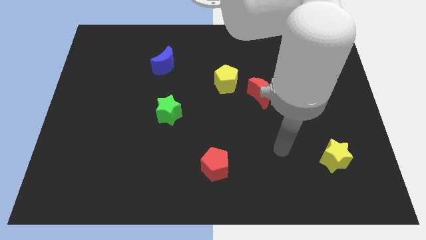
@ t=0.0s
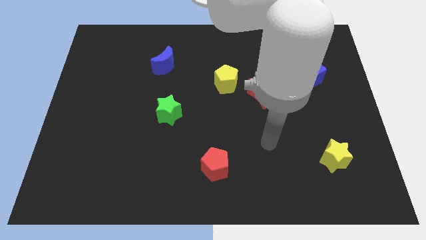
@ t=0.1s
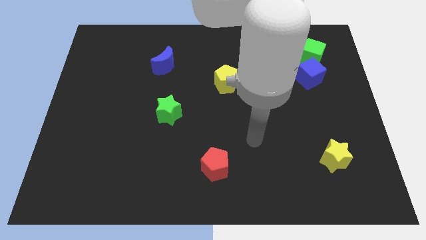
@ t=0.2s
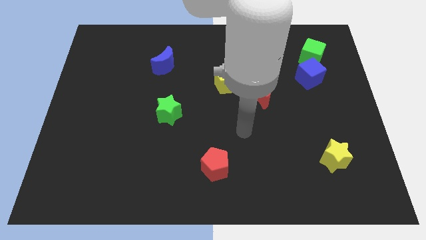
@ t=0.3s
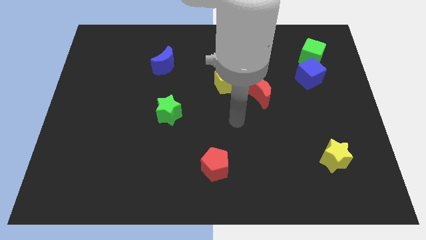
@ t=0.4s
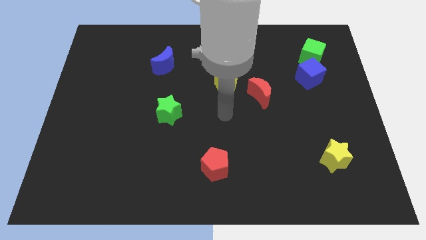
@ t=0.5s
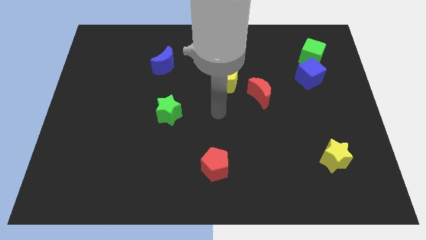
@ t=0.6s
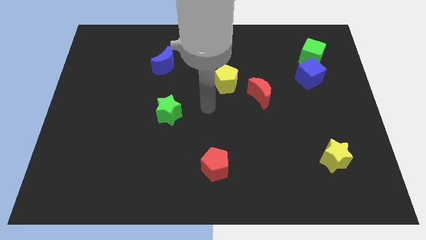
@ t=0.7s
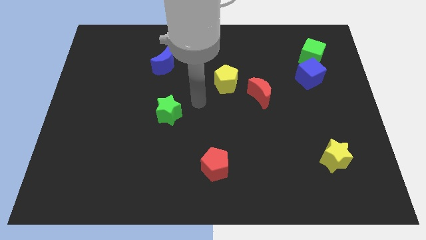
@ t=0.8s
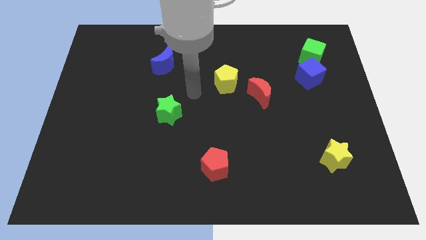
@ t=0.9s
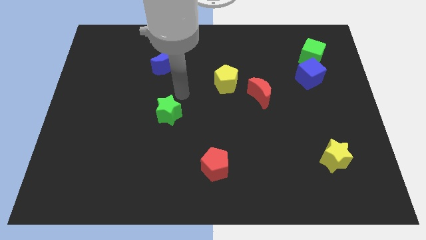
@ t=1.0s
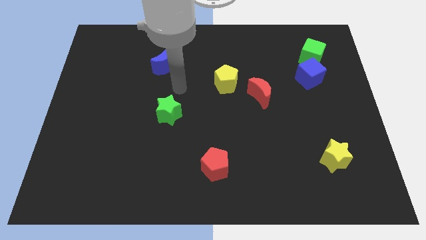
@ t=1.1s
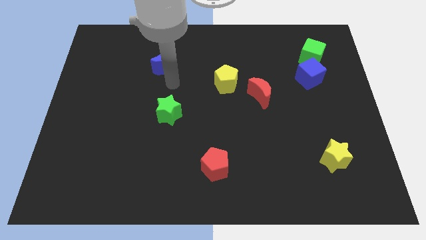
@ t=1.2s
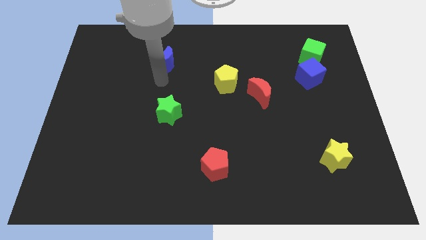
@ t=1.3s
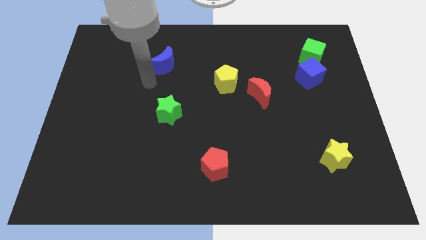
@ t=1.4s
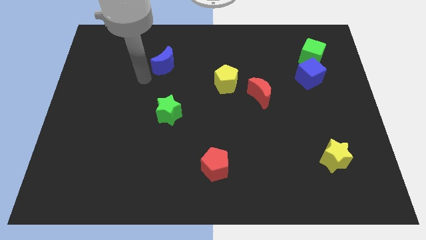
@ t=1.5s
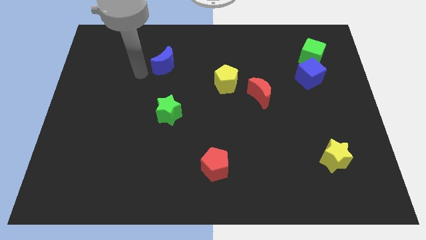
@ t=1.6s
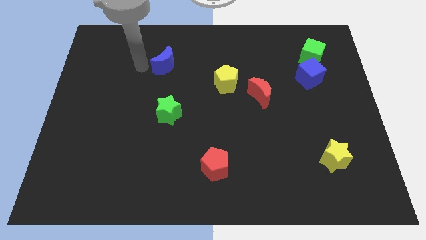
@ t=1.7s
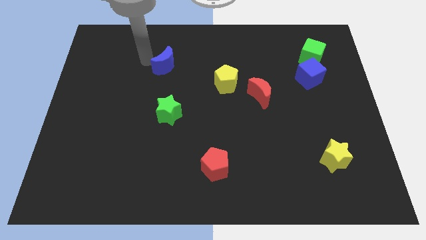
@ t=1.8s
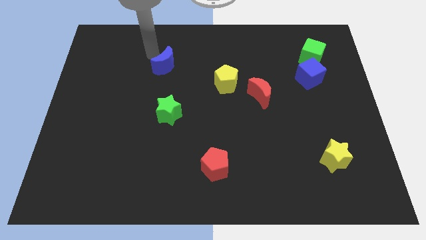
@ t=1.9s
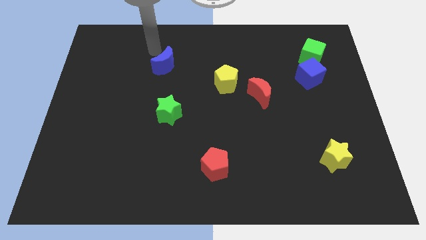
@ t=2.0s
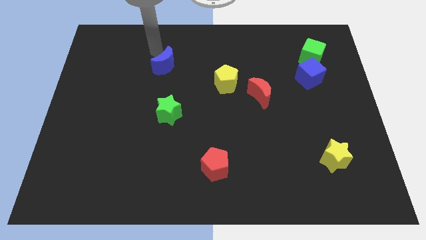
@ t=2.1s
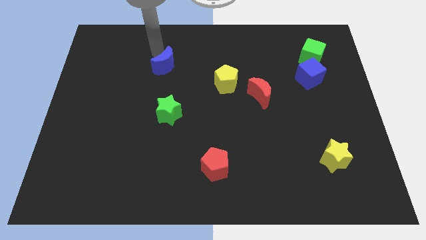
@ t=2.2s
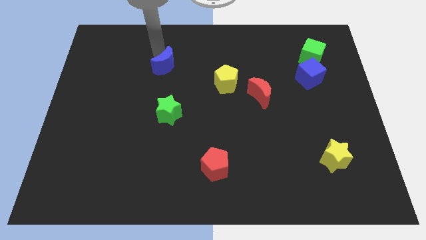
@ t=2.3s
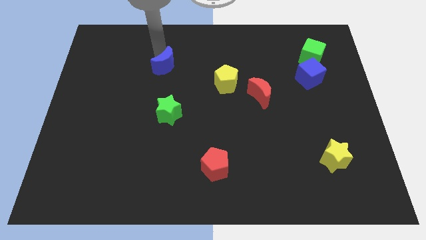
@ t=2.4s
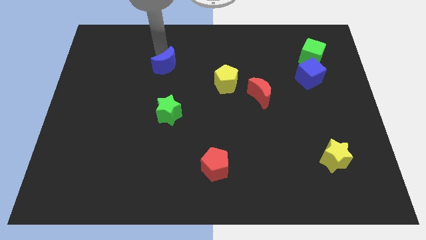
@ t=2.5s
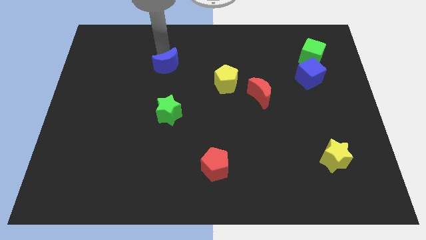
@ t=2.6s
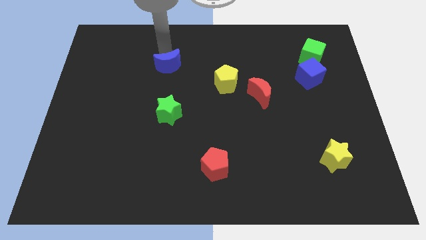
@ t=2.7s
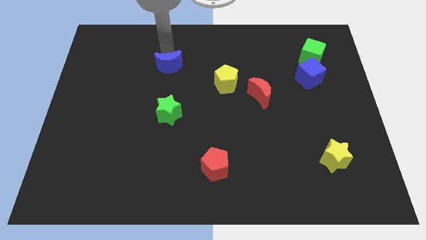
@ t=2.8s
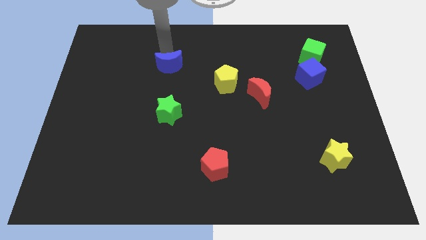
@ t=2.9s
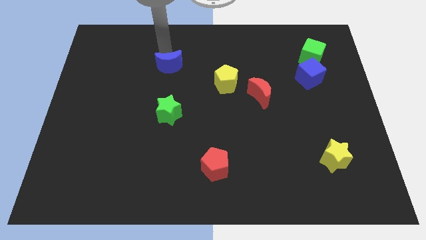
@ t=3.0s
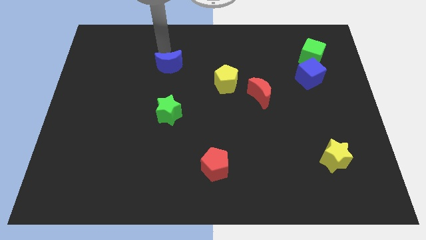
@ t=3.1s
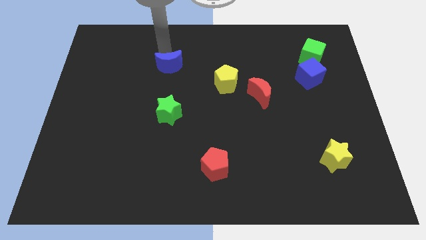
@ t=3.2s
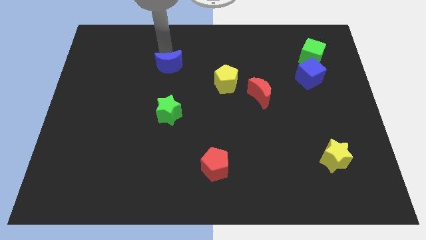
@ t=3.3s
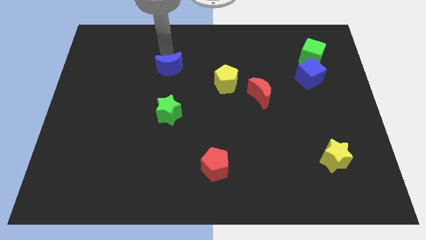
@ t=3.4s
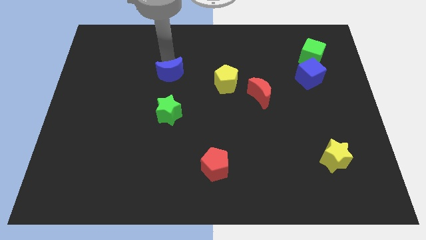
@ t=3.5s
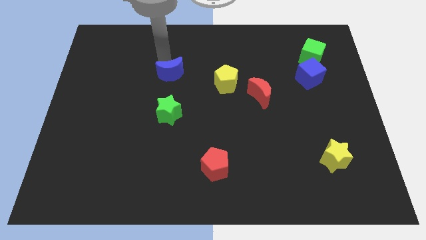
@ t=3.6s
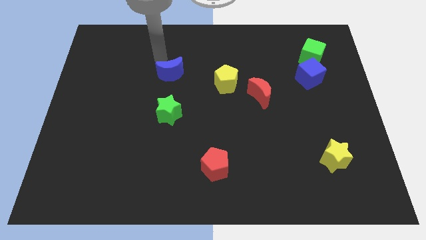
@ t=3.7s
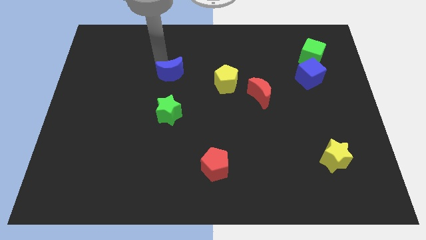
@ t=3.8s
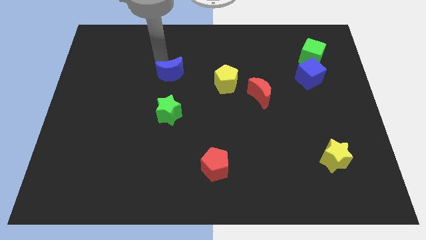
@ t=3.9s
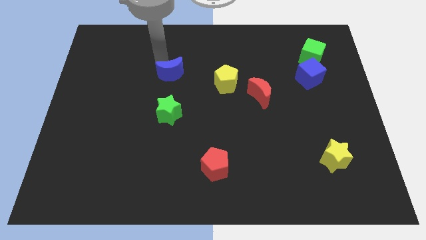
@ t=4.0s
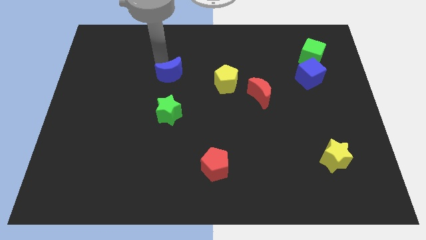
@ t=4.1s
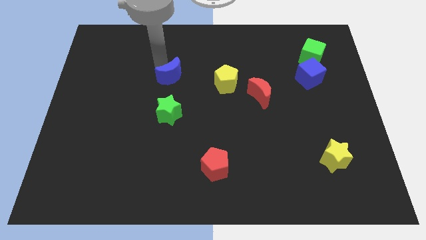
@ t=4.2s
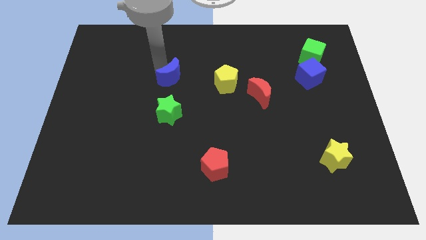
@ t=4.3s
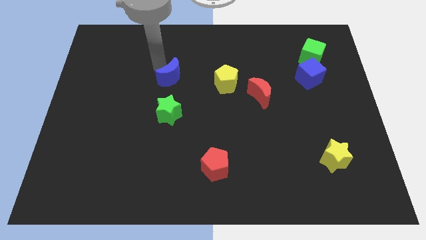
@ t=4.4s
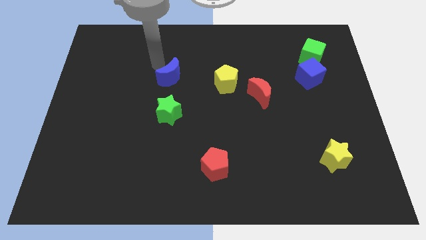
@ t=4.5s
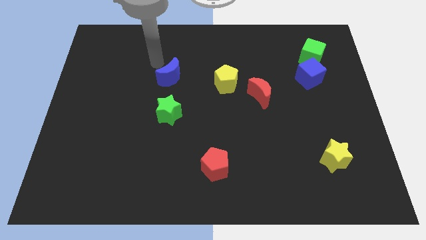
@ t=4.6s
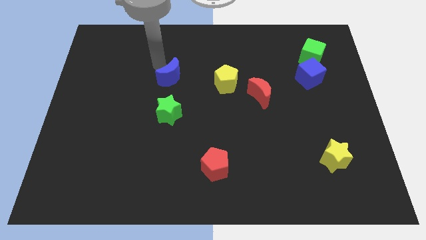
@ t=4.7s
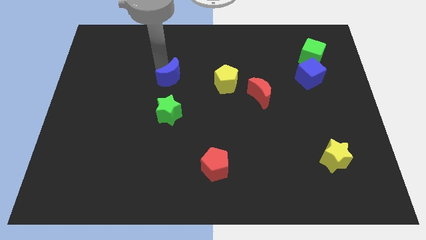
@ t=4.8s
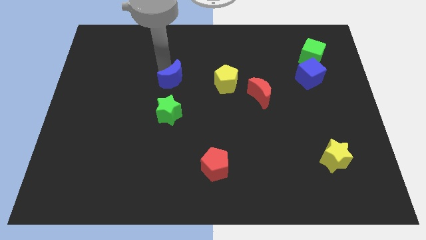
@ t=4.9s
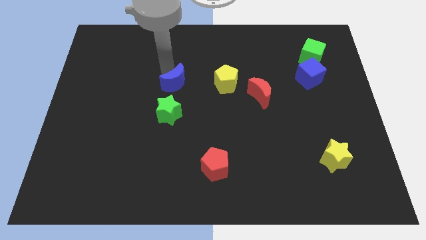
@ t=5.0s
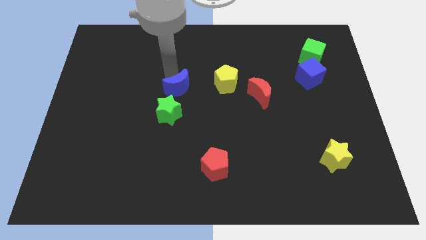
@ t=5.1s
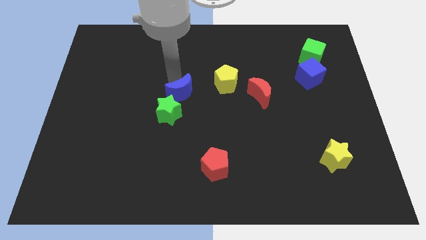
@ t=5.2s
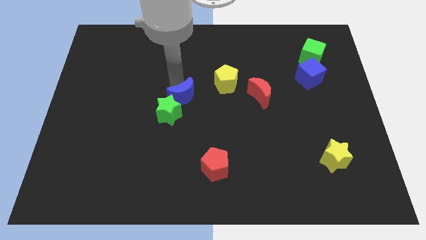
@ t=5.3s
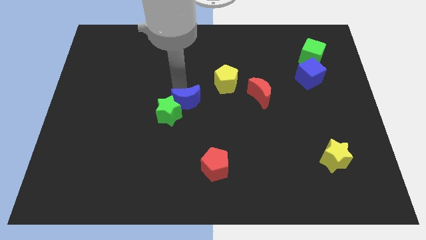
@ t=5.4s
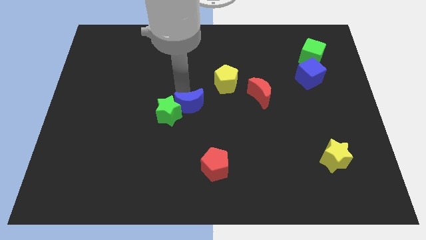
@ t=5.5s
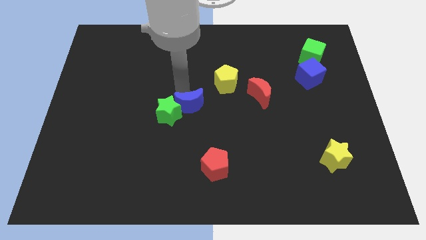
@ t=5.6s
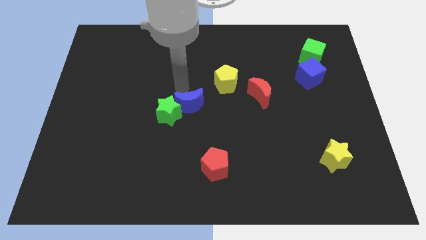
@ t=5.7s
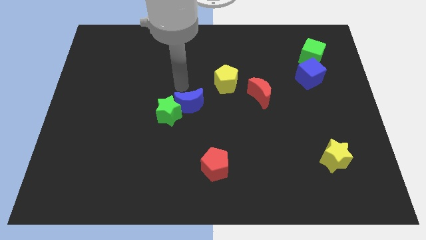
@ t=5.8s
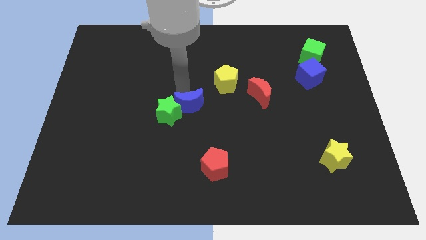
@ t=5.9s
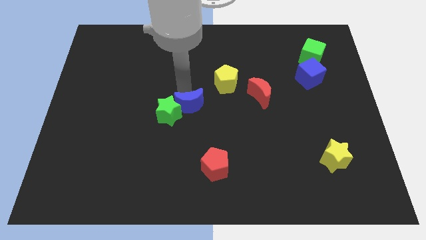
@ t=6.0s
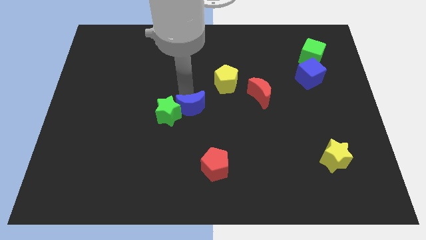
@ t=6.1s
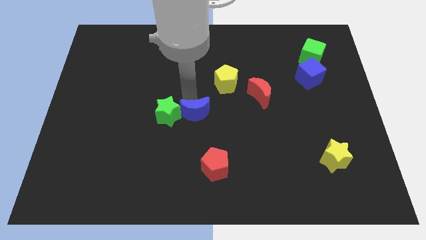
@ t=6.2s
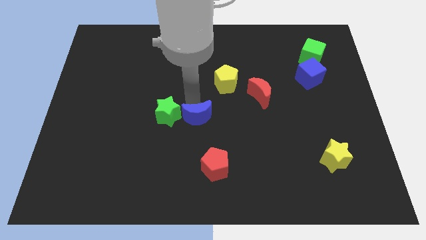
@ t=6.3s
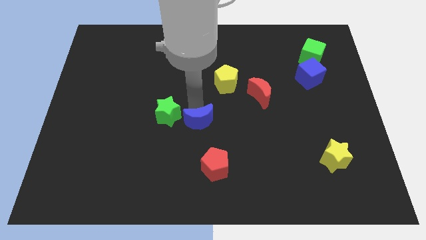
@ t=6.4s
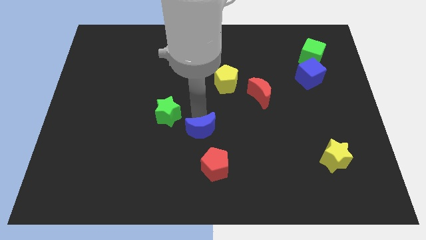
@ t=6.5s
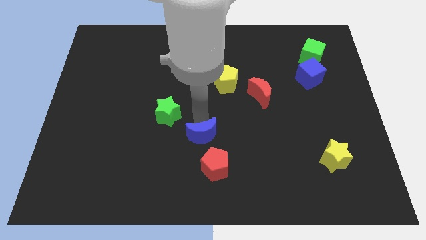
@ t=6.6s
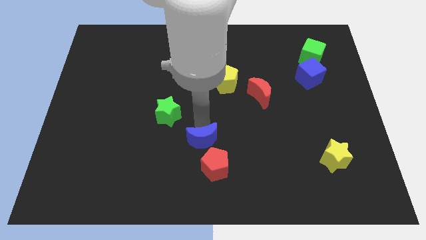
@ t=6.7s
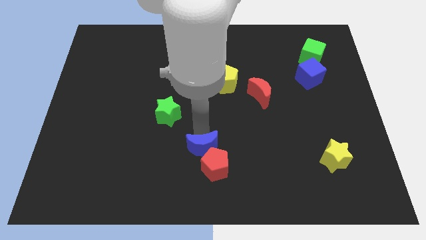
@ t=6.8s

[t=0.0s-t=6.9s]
slide the blue moon to the red pentagon

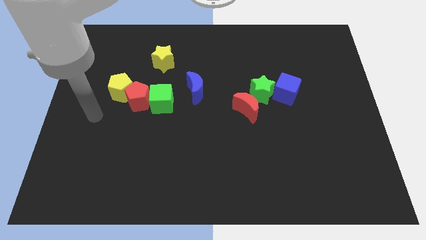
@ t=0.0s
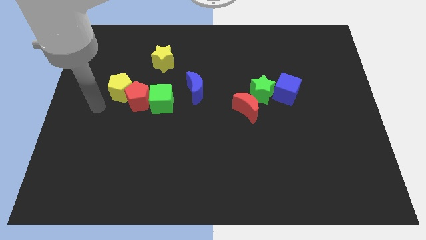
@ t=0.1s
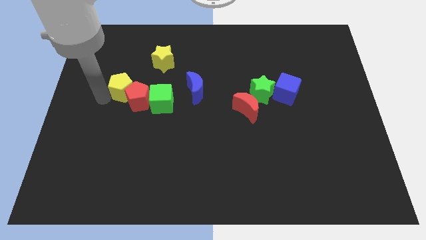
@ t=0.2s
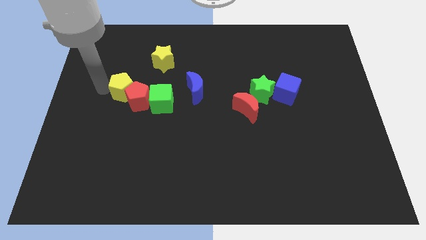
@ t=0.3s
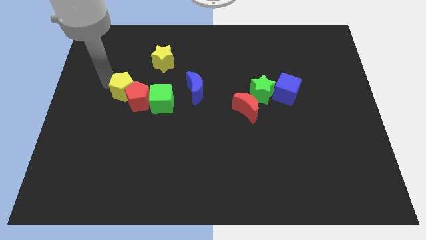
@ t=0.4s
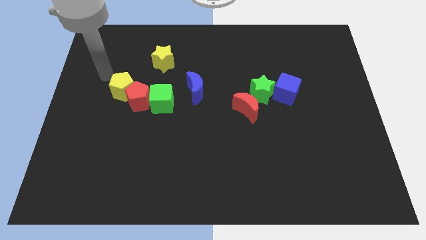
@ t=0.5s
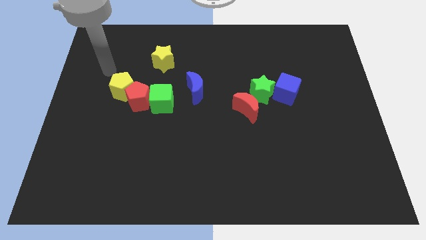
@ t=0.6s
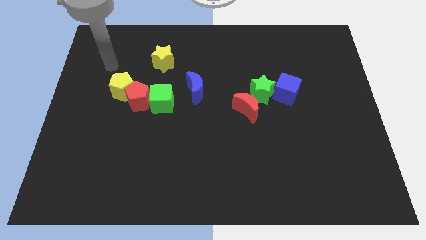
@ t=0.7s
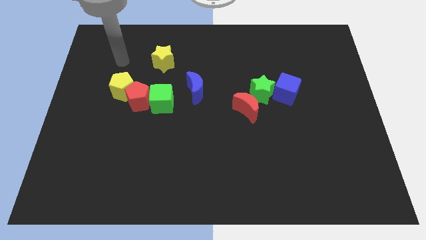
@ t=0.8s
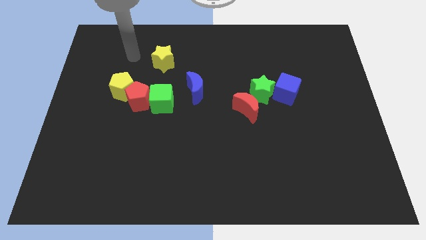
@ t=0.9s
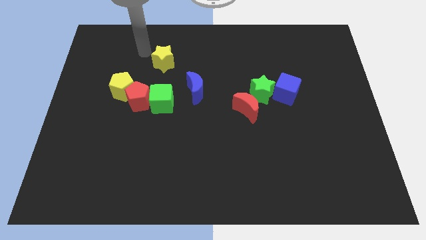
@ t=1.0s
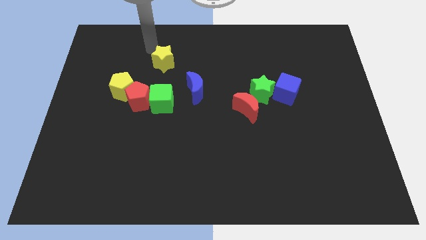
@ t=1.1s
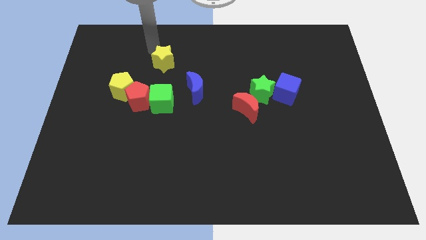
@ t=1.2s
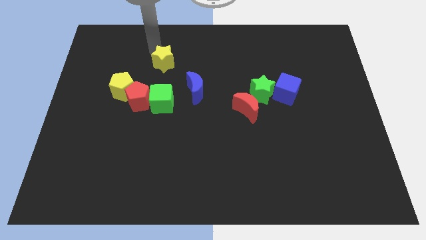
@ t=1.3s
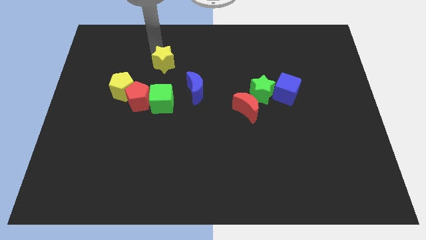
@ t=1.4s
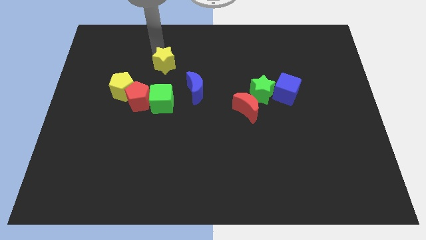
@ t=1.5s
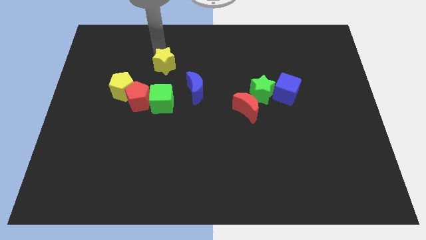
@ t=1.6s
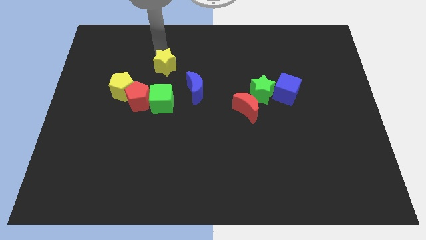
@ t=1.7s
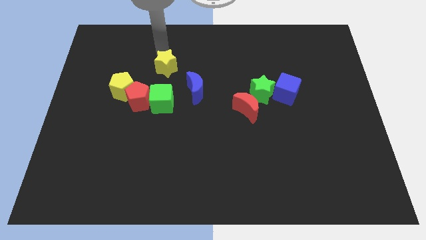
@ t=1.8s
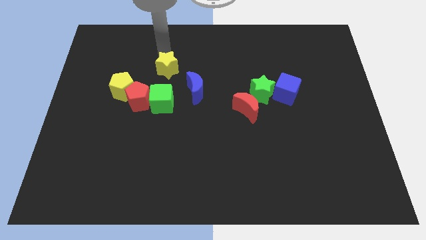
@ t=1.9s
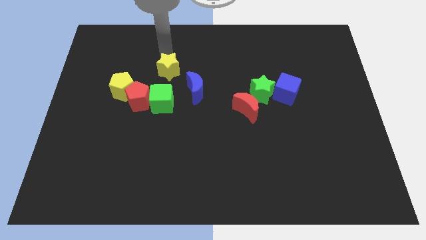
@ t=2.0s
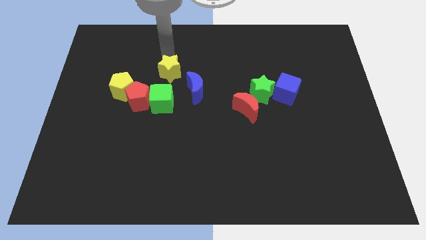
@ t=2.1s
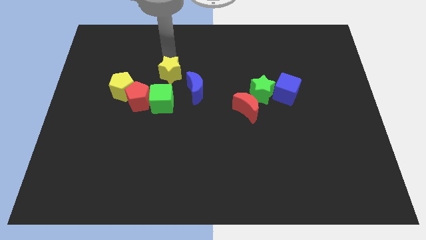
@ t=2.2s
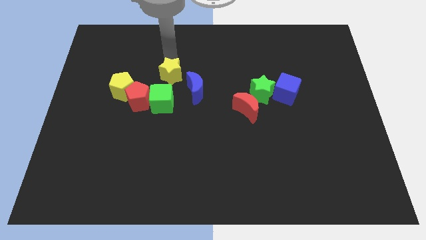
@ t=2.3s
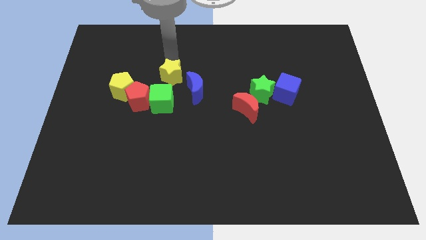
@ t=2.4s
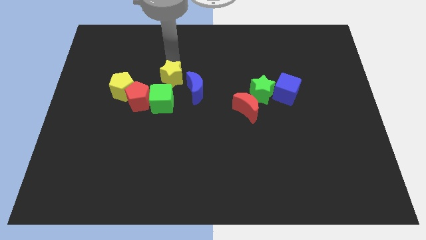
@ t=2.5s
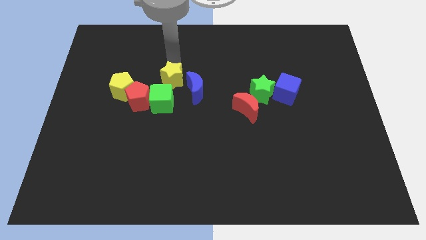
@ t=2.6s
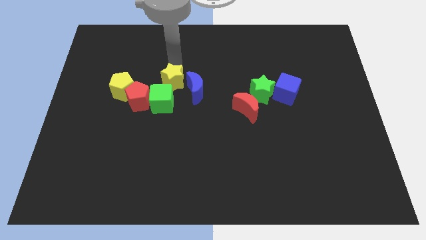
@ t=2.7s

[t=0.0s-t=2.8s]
slide the yellow star to the blue moon
